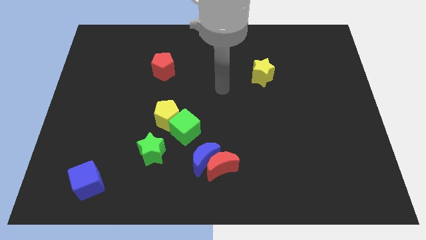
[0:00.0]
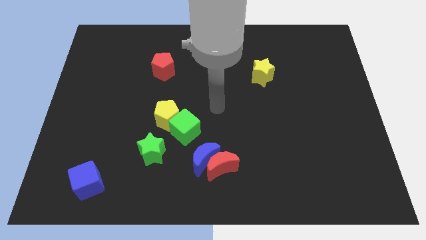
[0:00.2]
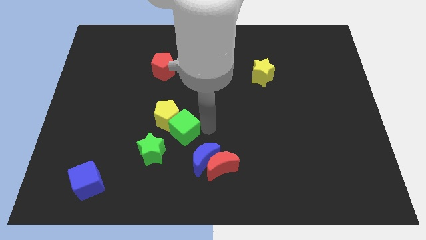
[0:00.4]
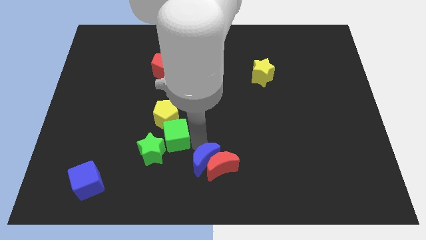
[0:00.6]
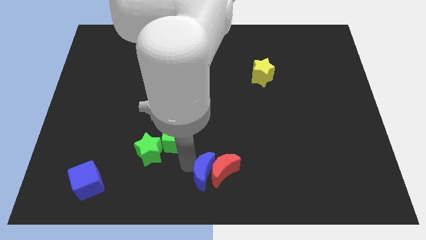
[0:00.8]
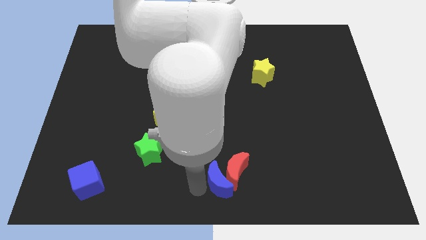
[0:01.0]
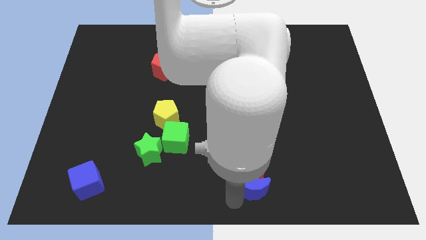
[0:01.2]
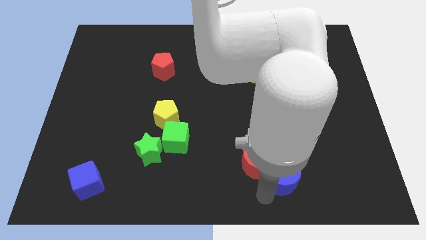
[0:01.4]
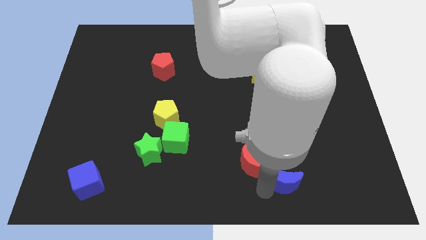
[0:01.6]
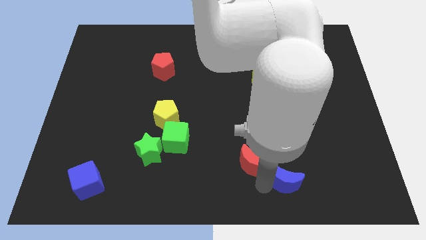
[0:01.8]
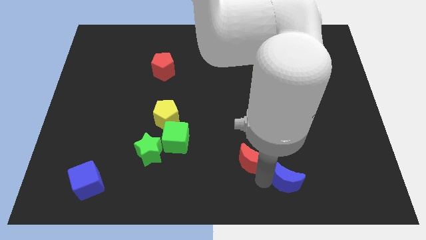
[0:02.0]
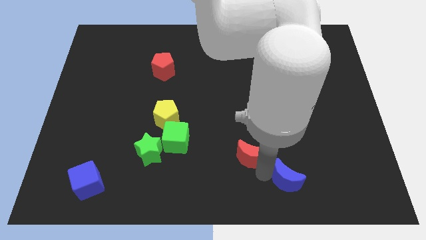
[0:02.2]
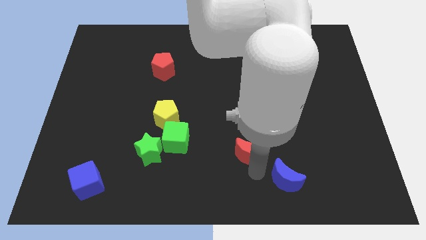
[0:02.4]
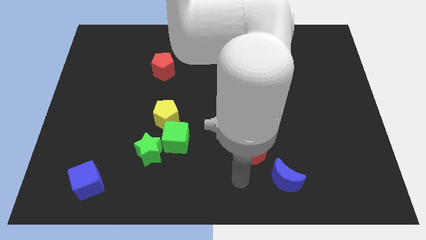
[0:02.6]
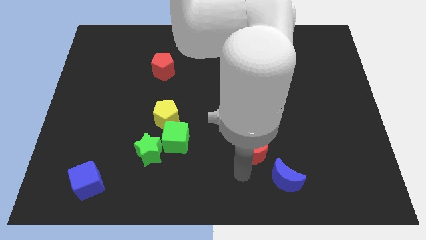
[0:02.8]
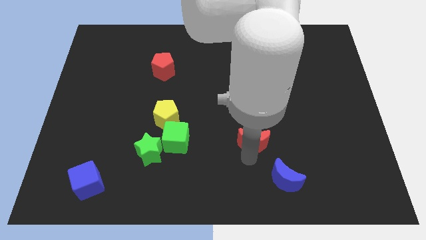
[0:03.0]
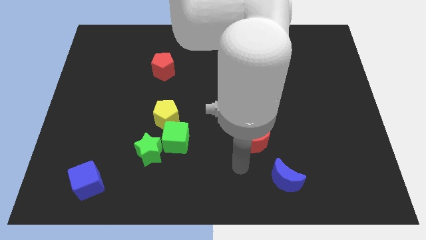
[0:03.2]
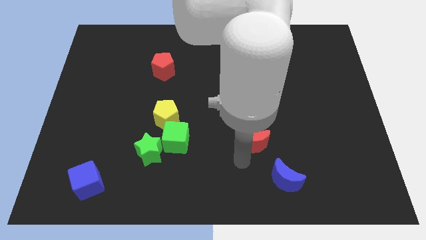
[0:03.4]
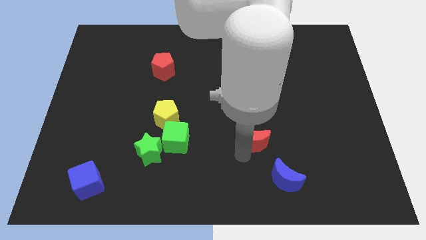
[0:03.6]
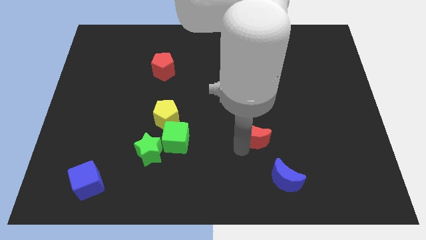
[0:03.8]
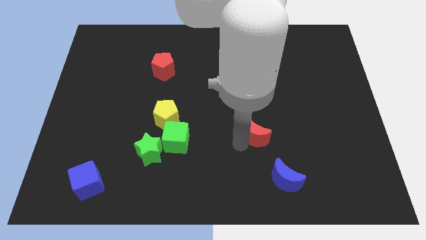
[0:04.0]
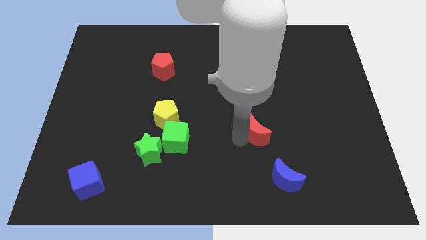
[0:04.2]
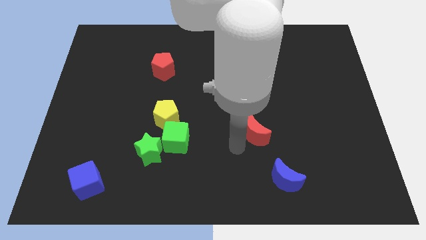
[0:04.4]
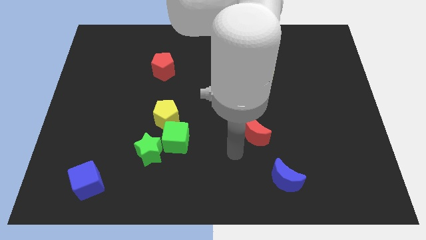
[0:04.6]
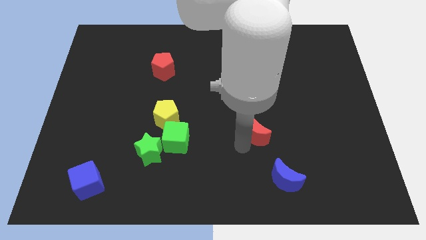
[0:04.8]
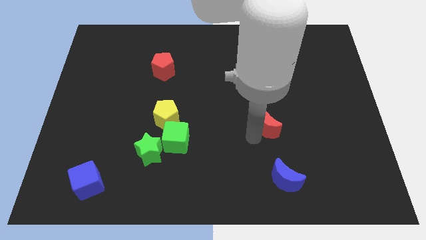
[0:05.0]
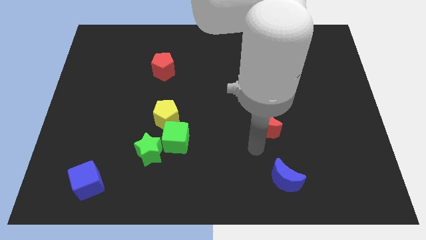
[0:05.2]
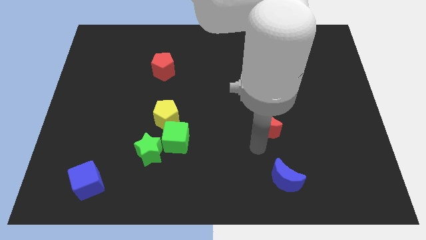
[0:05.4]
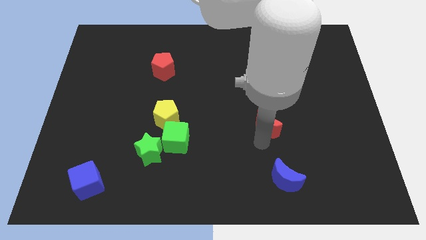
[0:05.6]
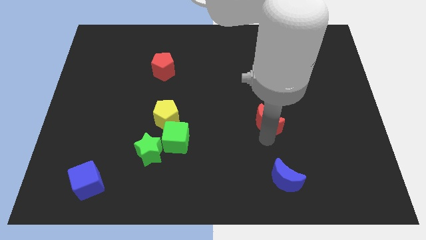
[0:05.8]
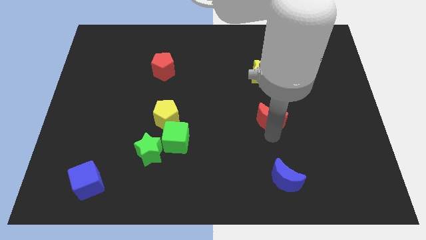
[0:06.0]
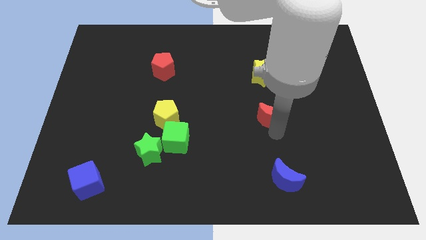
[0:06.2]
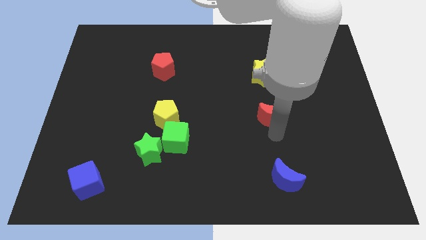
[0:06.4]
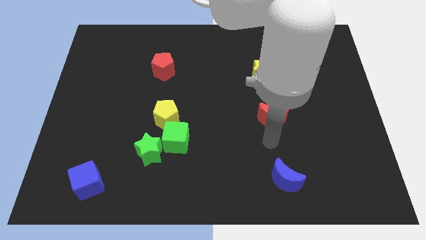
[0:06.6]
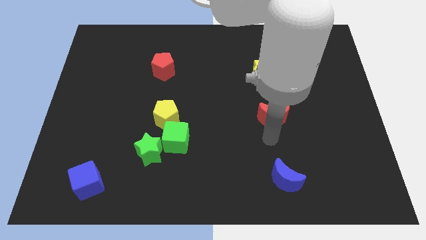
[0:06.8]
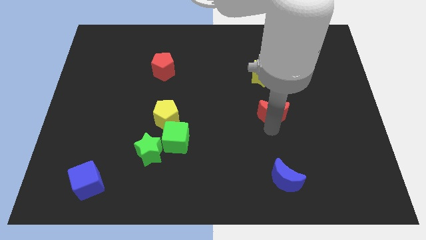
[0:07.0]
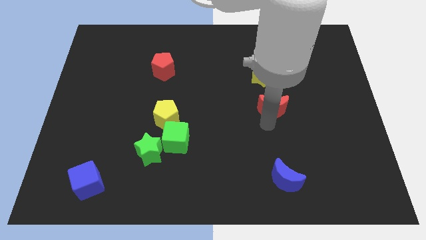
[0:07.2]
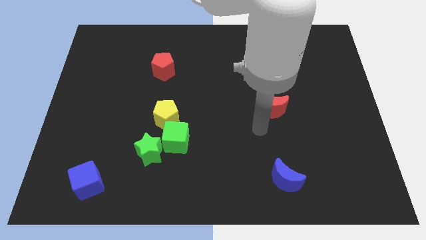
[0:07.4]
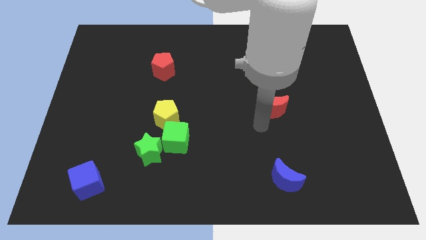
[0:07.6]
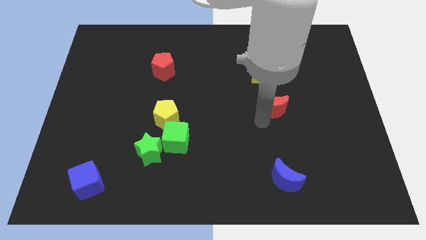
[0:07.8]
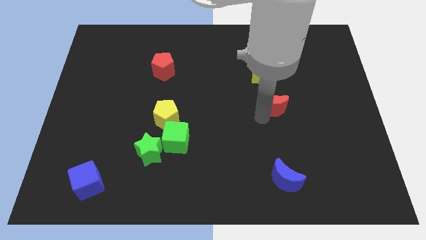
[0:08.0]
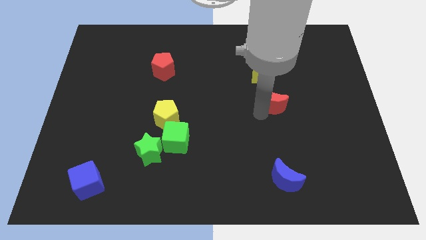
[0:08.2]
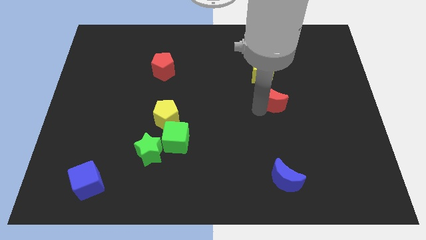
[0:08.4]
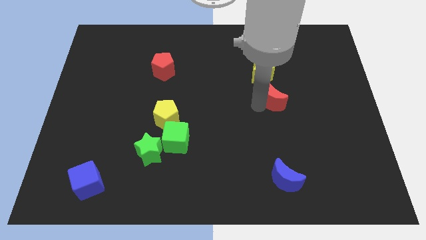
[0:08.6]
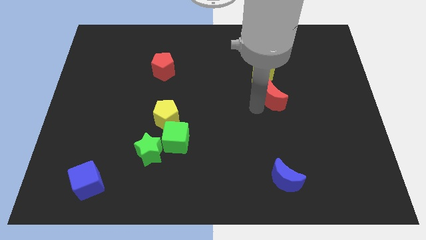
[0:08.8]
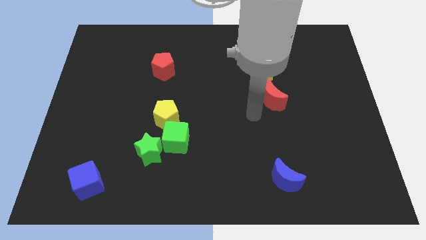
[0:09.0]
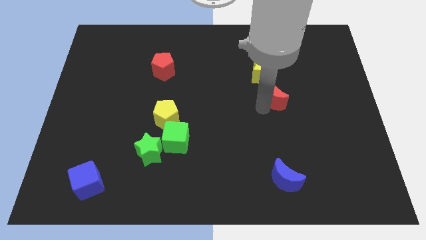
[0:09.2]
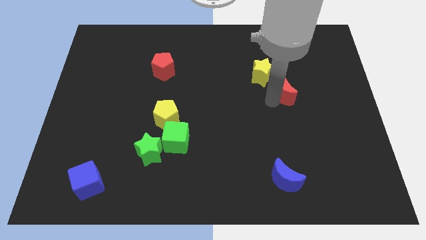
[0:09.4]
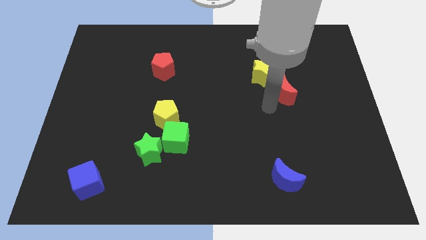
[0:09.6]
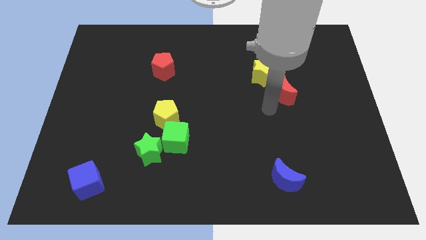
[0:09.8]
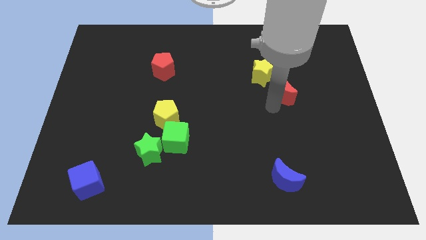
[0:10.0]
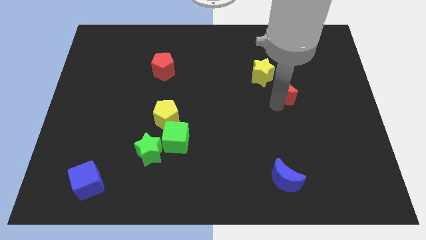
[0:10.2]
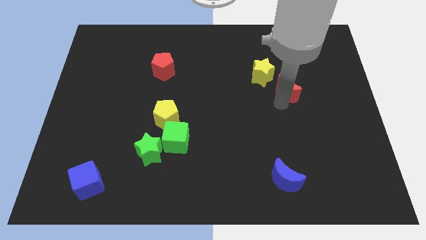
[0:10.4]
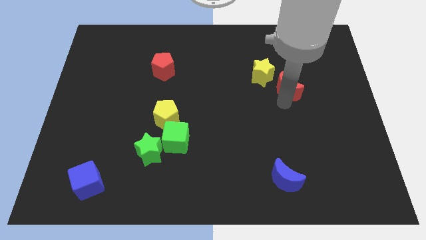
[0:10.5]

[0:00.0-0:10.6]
move the red moon to the right of the yellow star

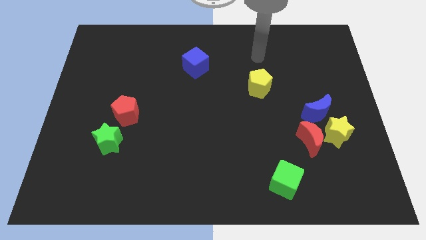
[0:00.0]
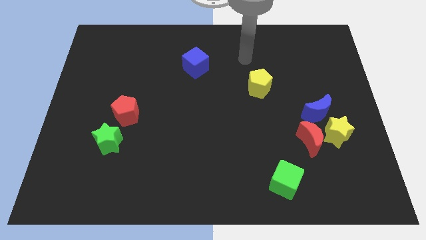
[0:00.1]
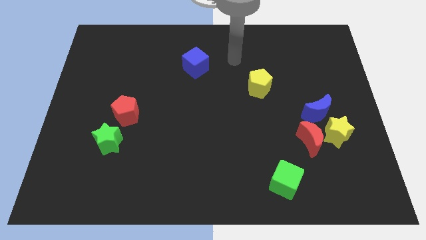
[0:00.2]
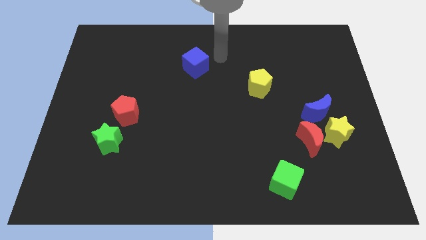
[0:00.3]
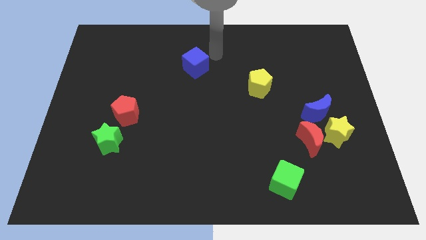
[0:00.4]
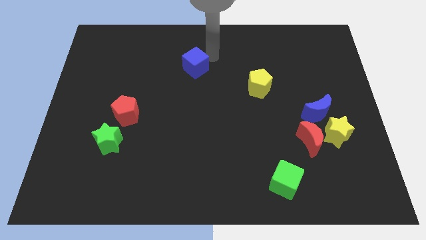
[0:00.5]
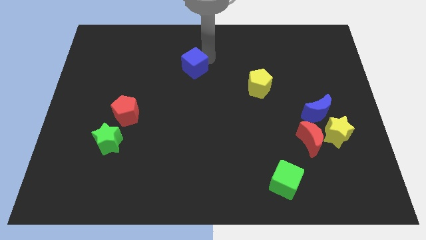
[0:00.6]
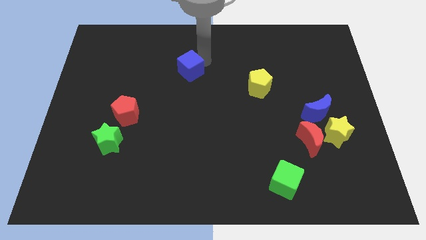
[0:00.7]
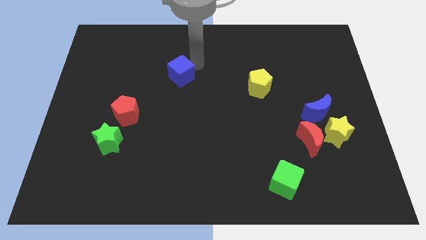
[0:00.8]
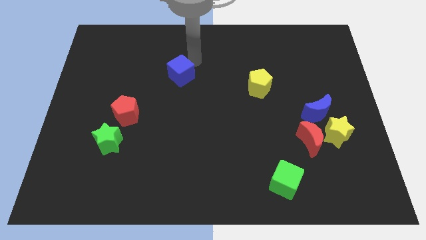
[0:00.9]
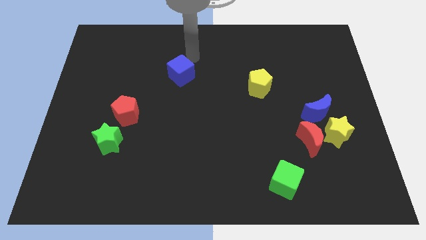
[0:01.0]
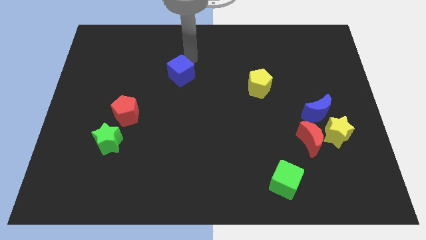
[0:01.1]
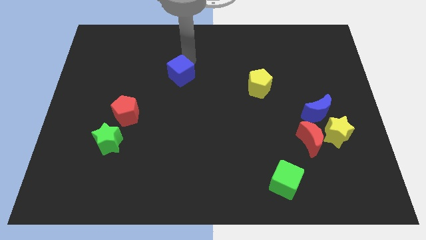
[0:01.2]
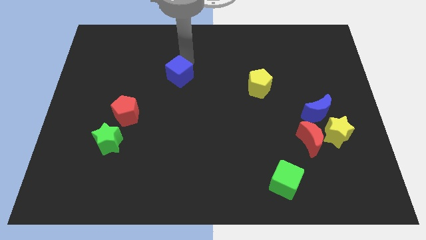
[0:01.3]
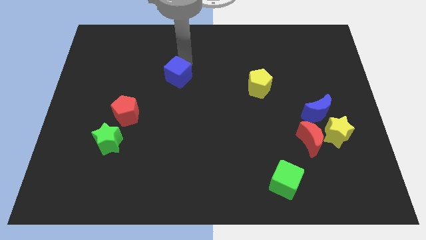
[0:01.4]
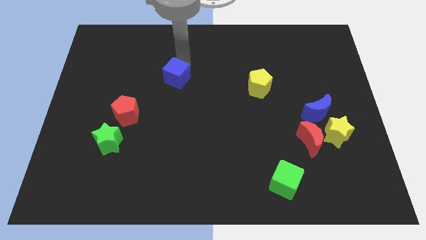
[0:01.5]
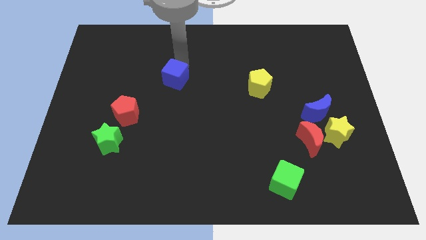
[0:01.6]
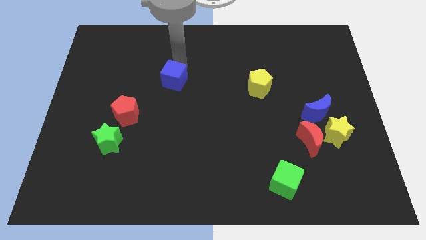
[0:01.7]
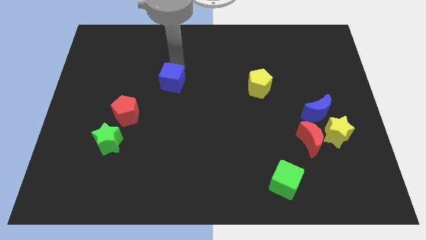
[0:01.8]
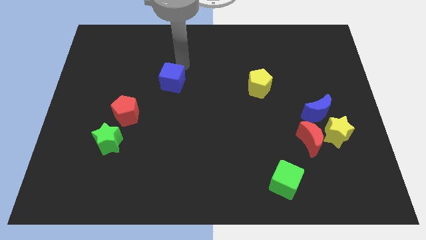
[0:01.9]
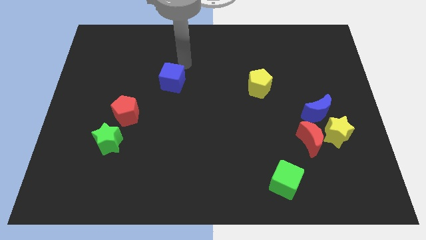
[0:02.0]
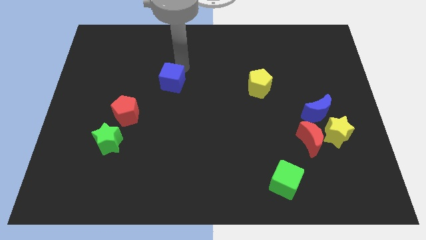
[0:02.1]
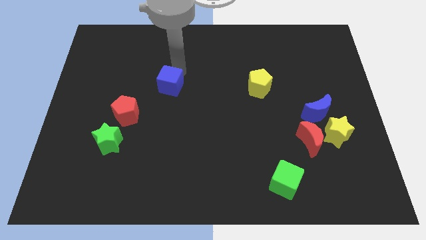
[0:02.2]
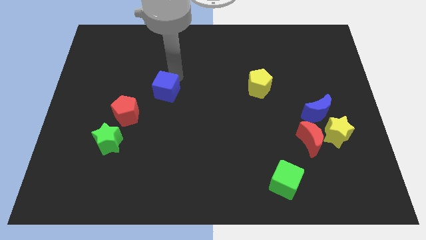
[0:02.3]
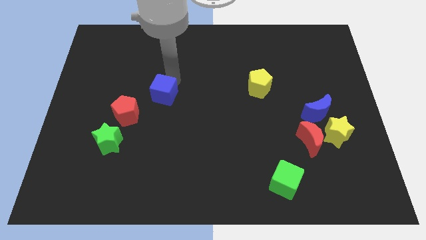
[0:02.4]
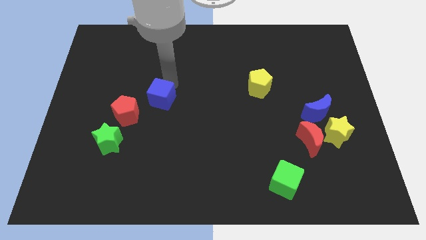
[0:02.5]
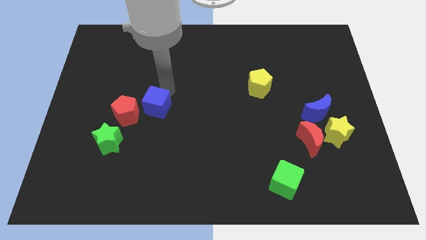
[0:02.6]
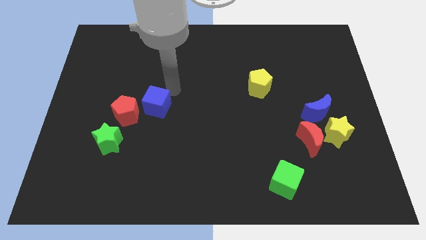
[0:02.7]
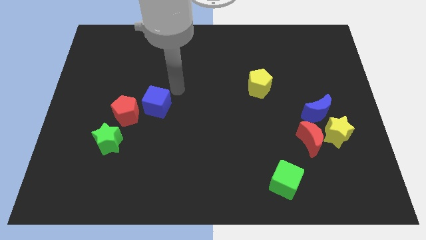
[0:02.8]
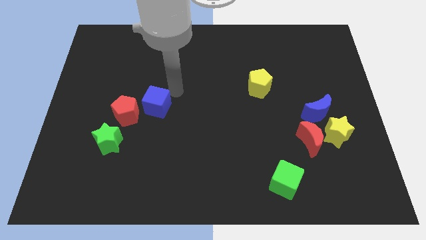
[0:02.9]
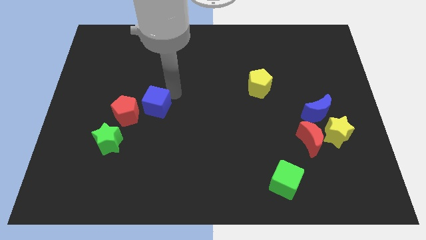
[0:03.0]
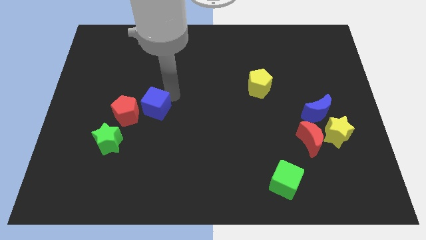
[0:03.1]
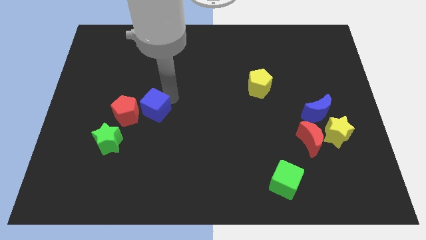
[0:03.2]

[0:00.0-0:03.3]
slide the blue cube to the top right side of the green star
